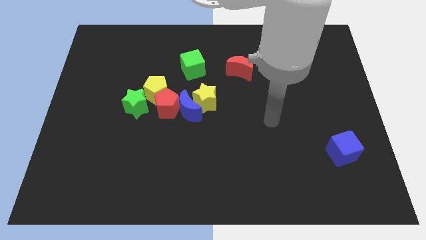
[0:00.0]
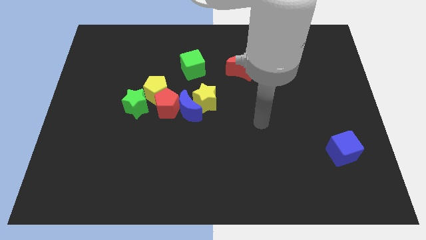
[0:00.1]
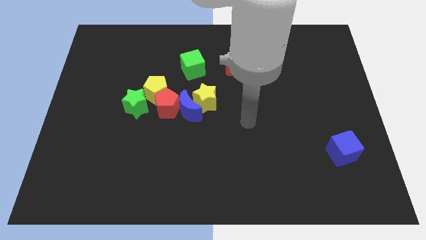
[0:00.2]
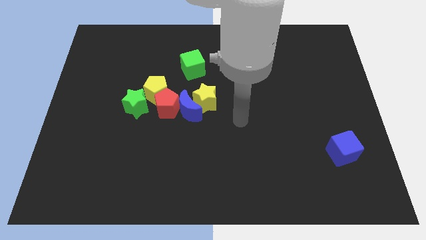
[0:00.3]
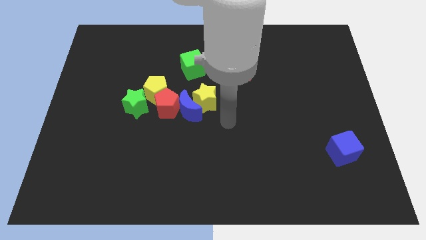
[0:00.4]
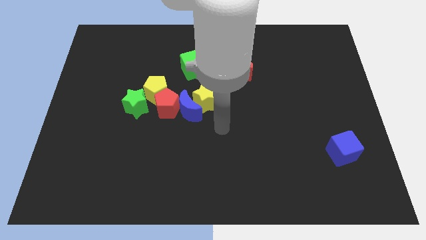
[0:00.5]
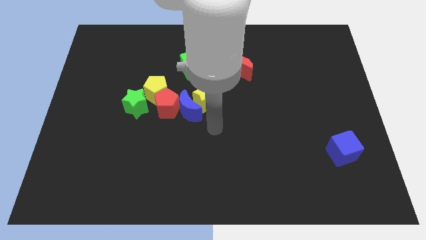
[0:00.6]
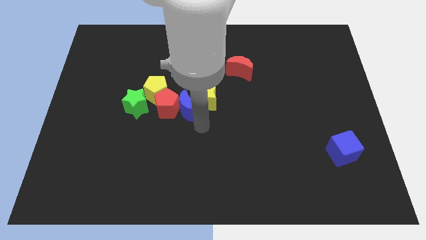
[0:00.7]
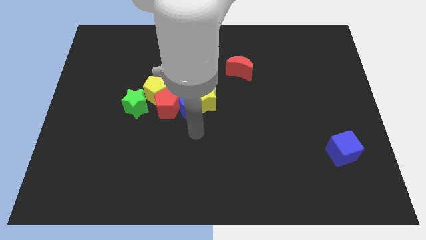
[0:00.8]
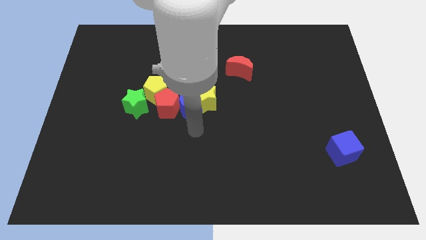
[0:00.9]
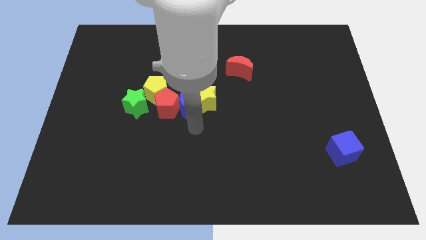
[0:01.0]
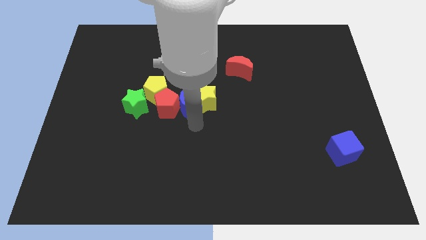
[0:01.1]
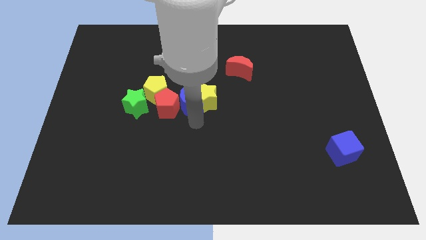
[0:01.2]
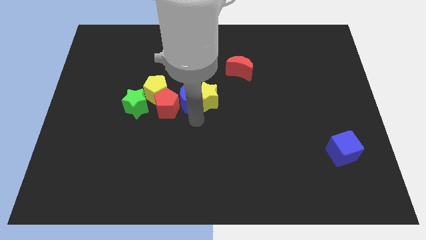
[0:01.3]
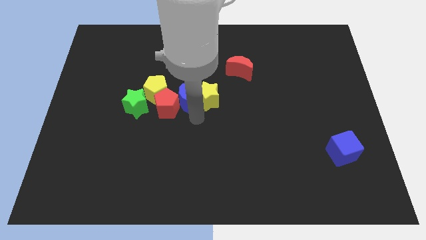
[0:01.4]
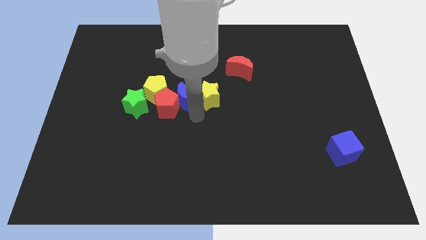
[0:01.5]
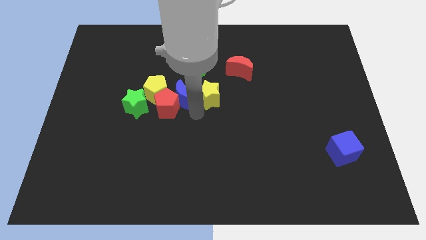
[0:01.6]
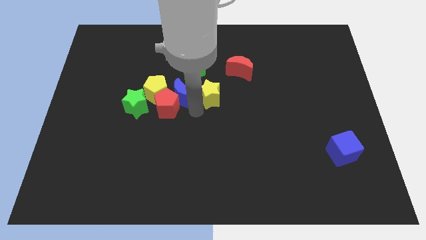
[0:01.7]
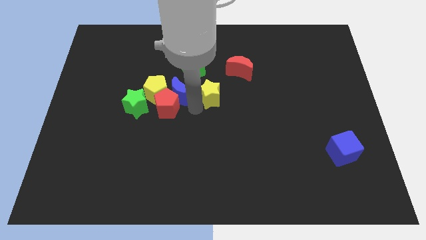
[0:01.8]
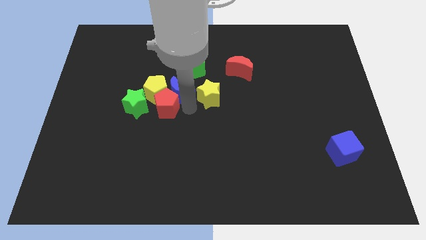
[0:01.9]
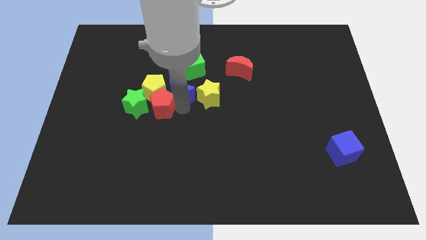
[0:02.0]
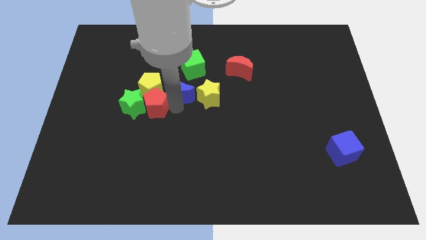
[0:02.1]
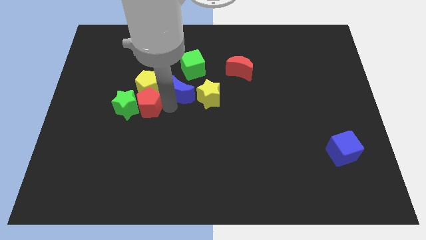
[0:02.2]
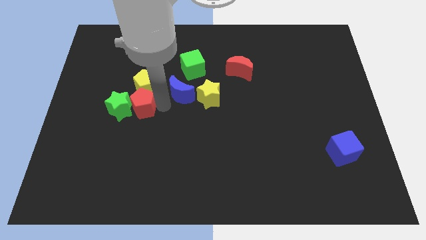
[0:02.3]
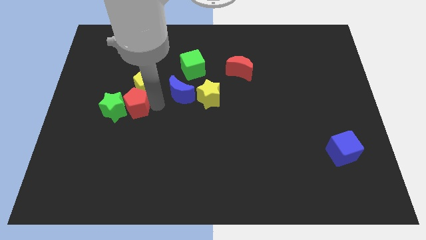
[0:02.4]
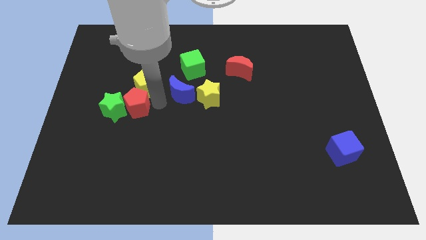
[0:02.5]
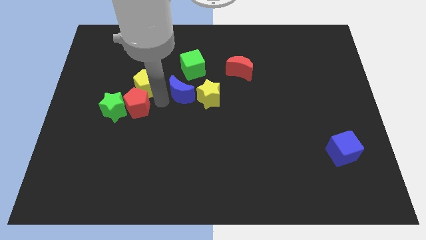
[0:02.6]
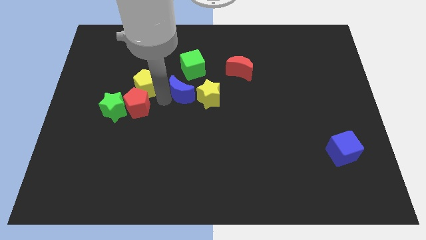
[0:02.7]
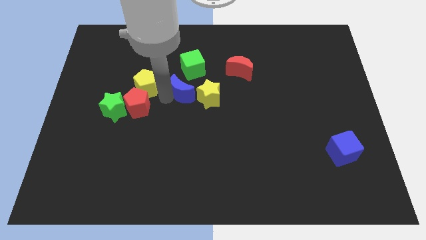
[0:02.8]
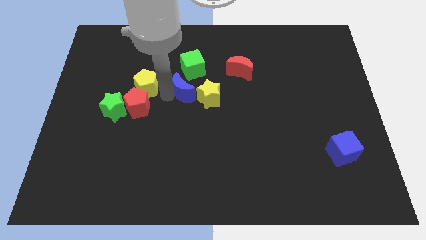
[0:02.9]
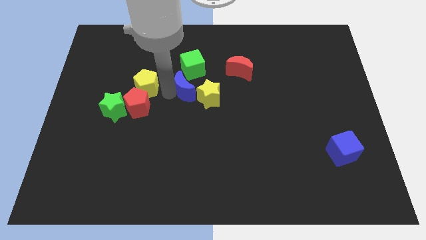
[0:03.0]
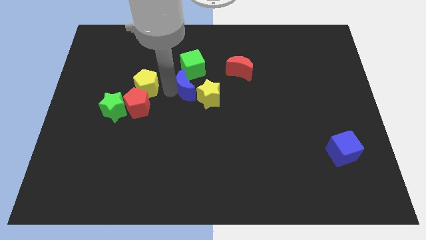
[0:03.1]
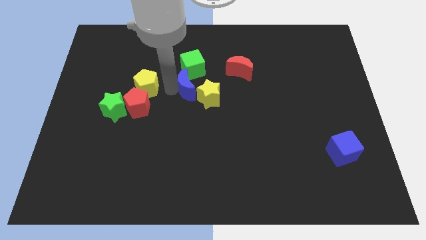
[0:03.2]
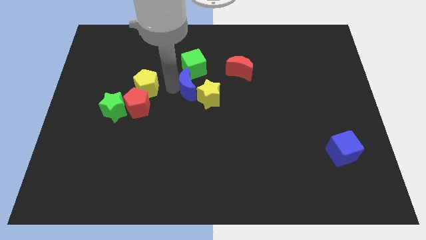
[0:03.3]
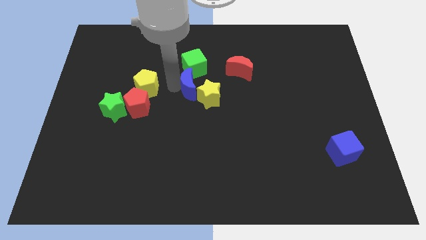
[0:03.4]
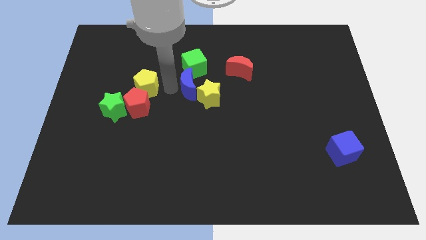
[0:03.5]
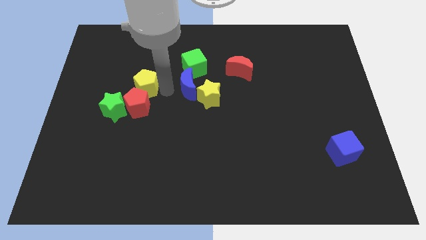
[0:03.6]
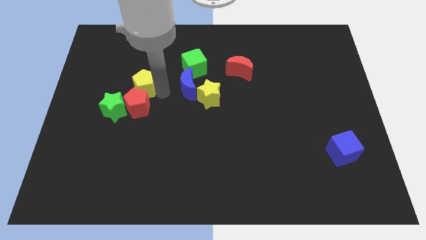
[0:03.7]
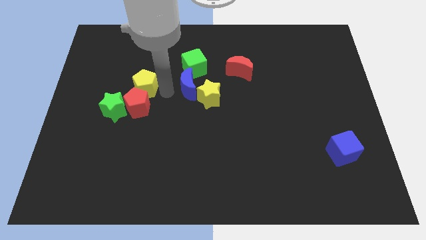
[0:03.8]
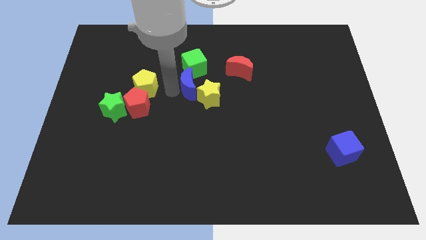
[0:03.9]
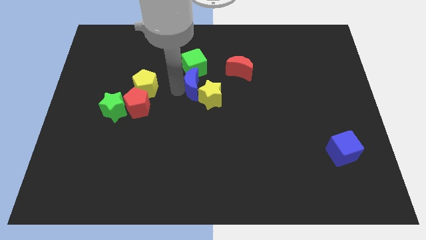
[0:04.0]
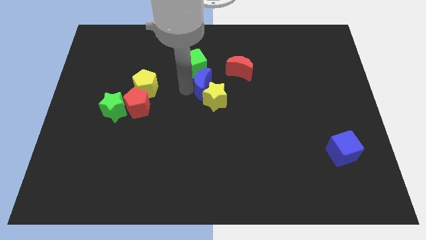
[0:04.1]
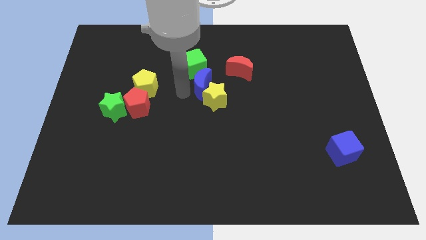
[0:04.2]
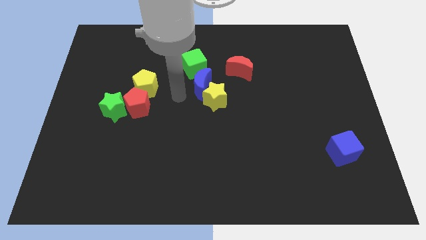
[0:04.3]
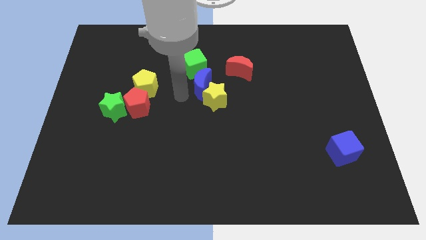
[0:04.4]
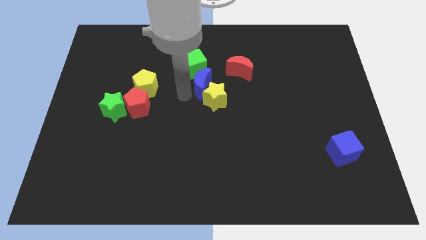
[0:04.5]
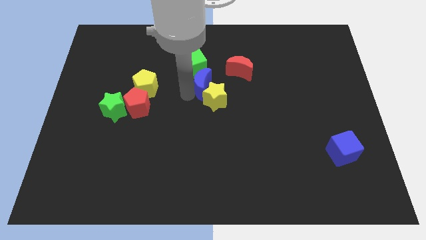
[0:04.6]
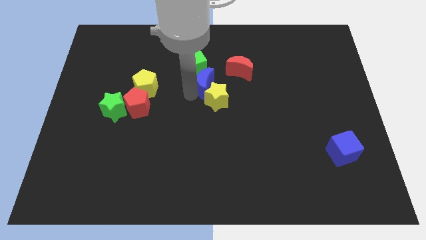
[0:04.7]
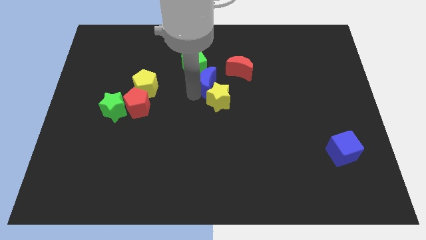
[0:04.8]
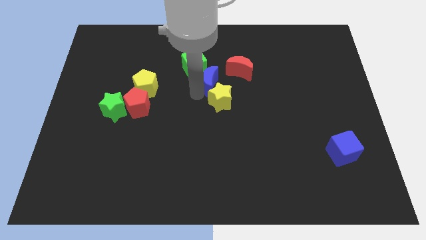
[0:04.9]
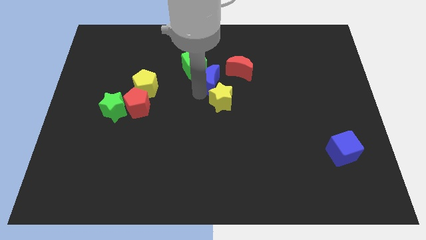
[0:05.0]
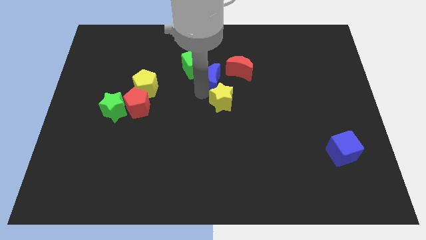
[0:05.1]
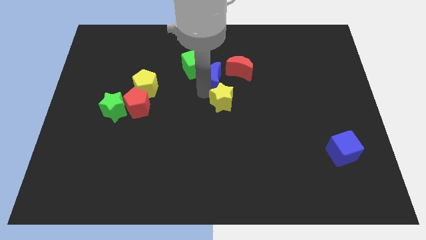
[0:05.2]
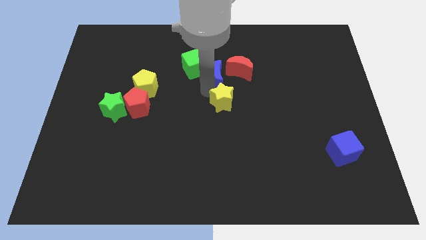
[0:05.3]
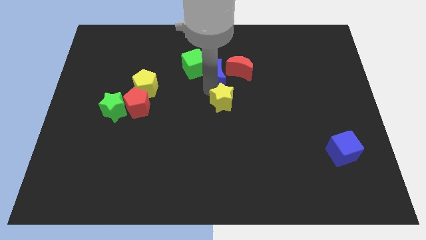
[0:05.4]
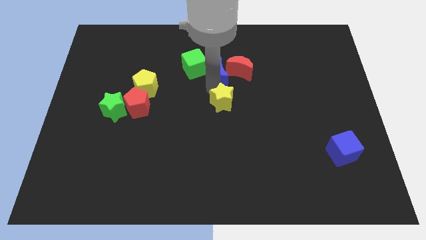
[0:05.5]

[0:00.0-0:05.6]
push the blue moon close to the red moon

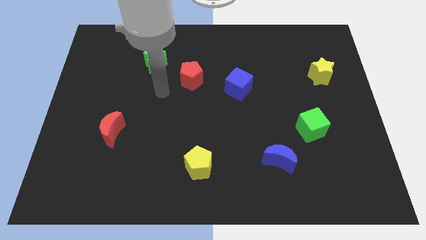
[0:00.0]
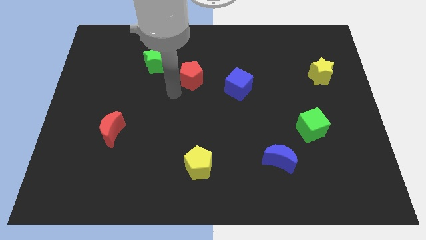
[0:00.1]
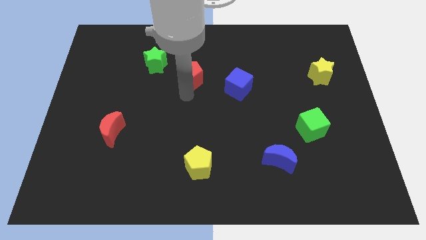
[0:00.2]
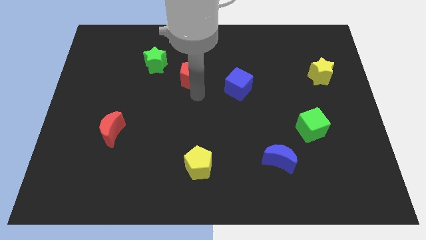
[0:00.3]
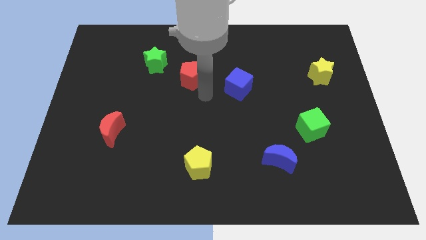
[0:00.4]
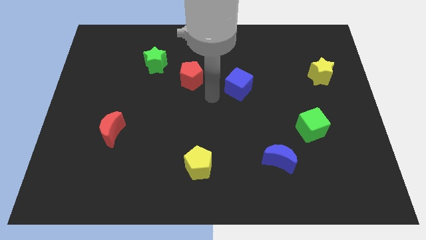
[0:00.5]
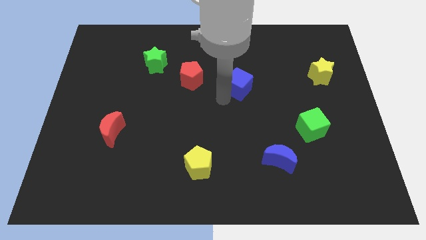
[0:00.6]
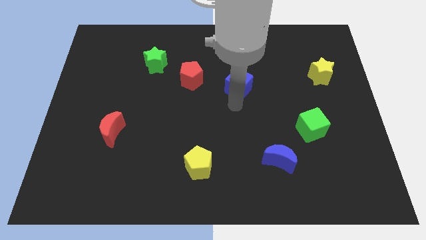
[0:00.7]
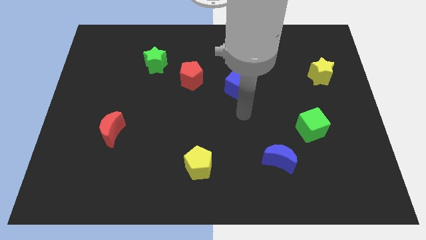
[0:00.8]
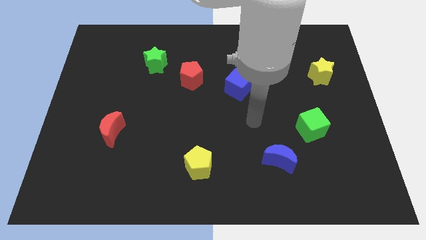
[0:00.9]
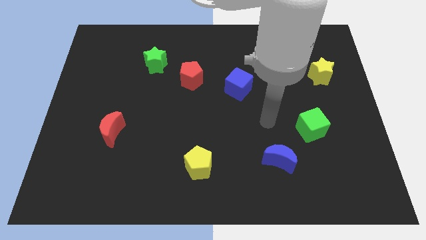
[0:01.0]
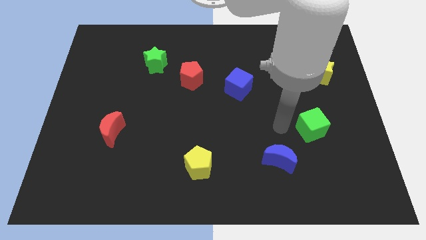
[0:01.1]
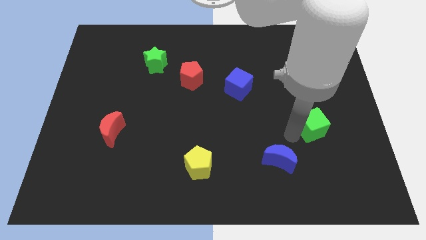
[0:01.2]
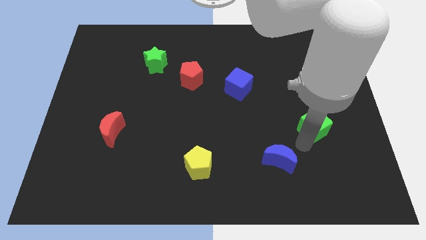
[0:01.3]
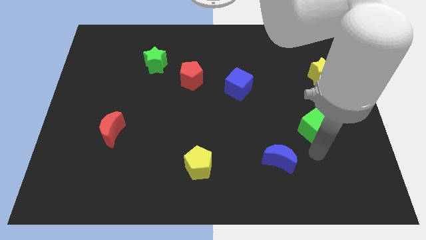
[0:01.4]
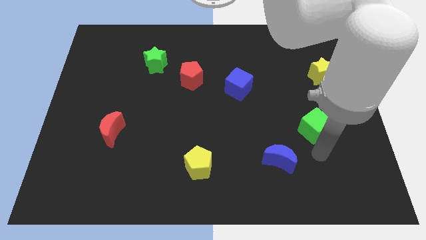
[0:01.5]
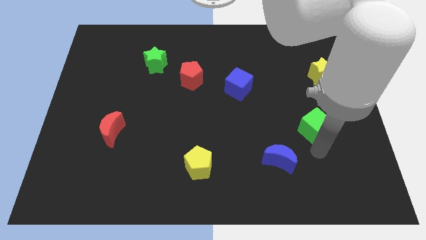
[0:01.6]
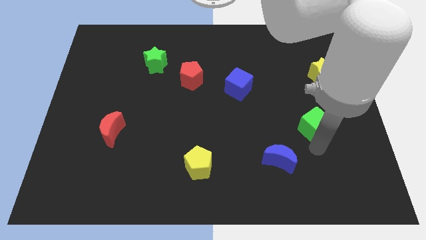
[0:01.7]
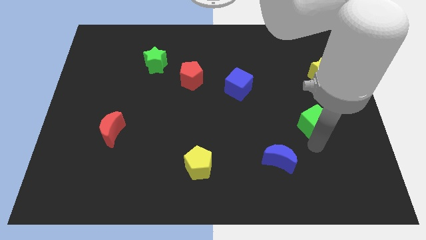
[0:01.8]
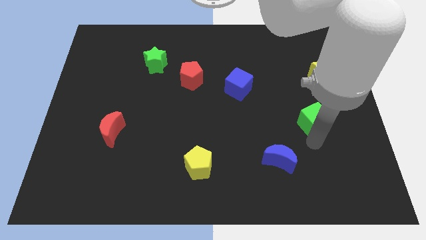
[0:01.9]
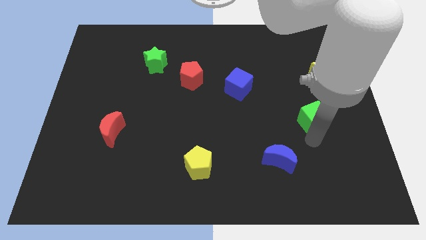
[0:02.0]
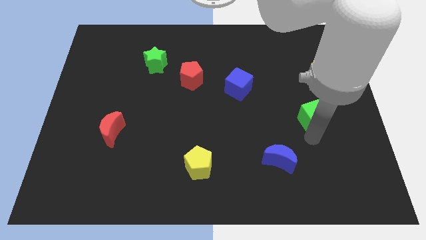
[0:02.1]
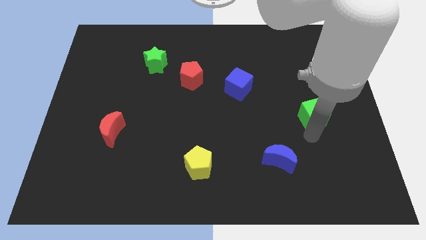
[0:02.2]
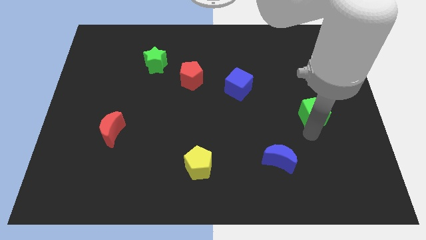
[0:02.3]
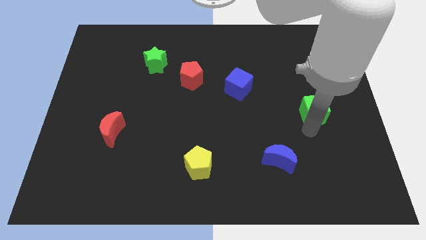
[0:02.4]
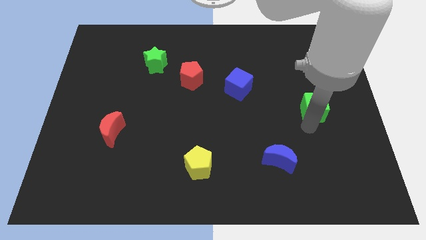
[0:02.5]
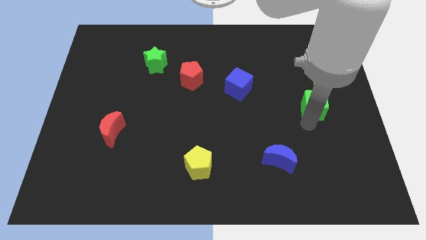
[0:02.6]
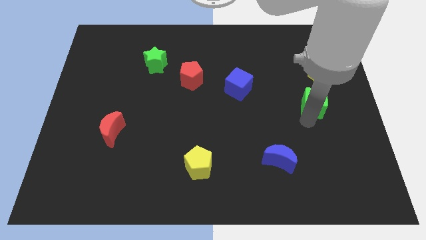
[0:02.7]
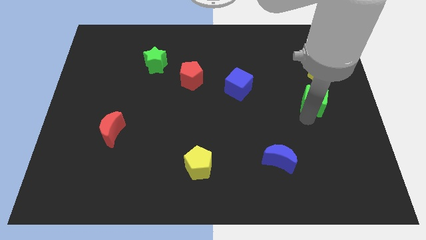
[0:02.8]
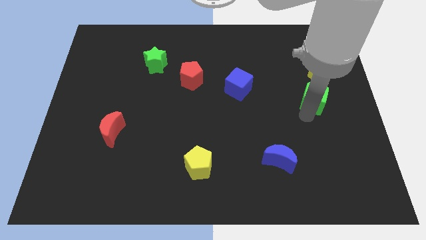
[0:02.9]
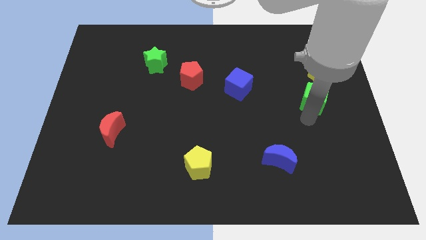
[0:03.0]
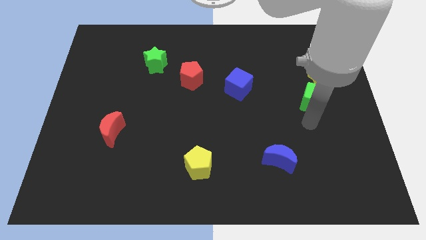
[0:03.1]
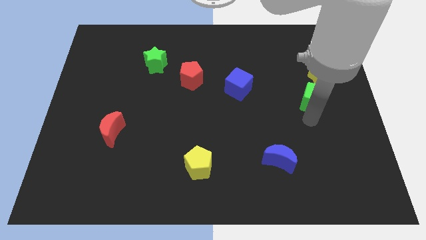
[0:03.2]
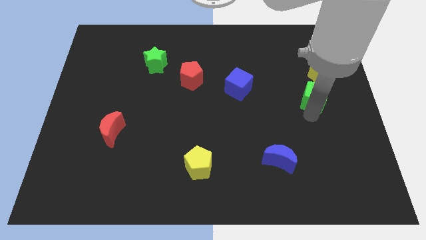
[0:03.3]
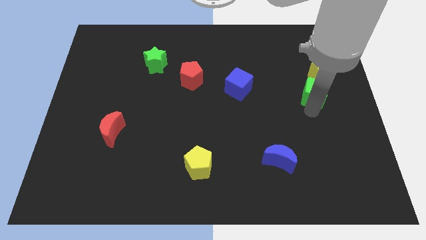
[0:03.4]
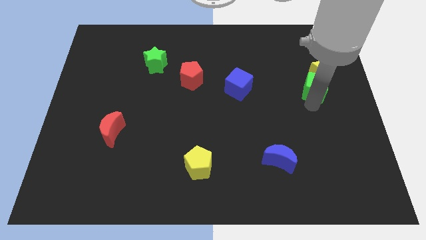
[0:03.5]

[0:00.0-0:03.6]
move the green cube next to the yellow star
